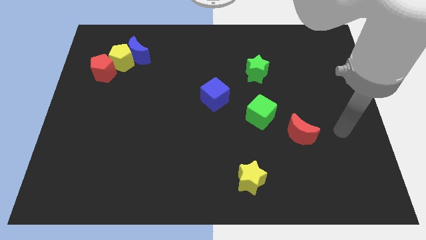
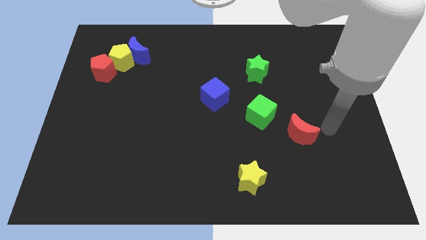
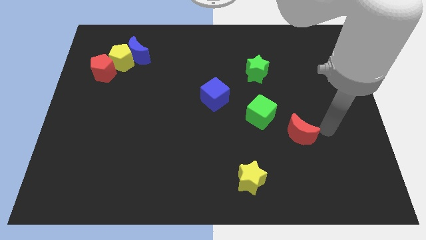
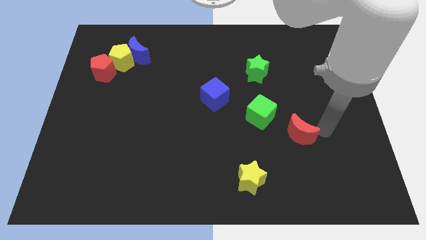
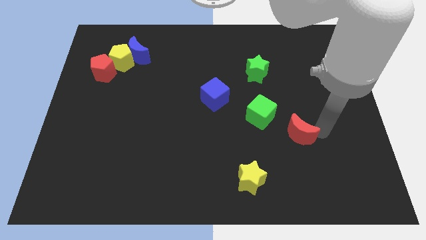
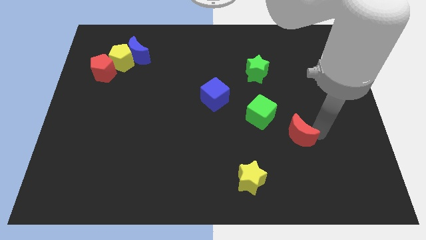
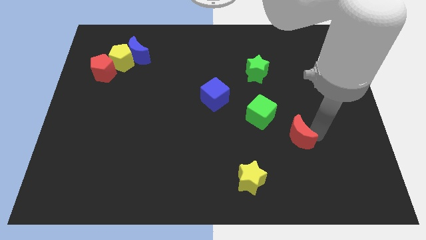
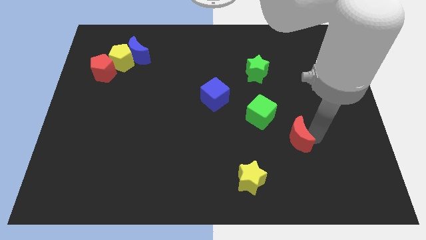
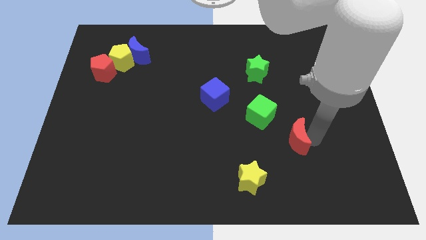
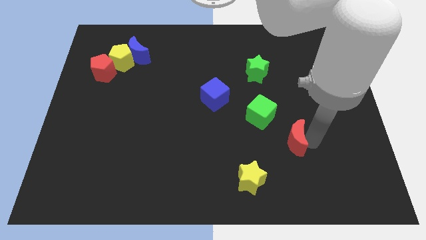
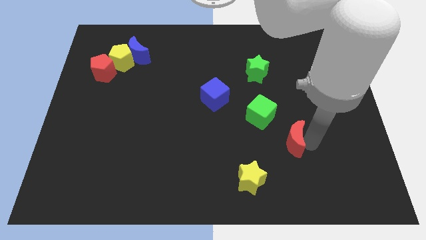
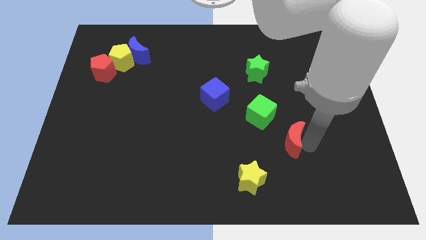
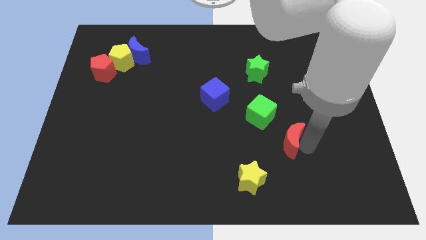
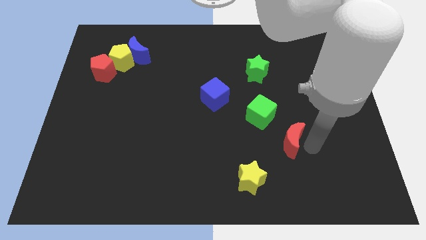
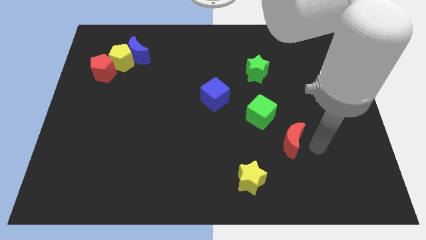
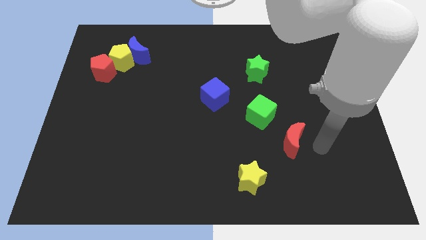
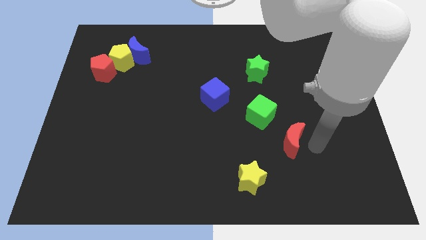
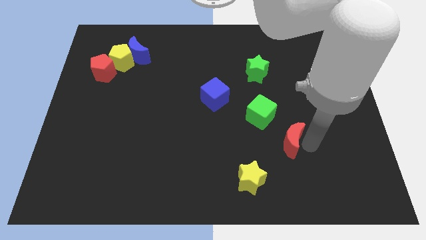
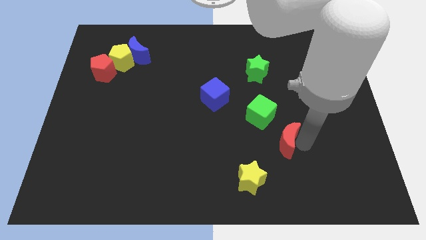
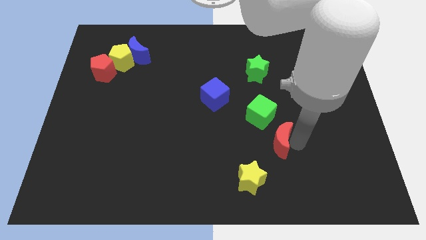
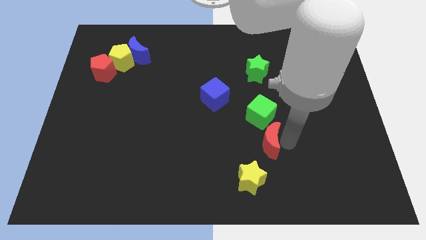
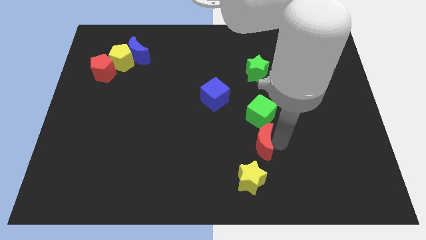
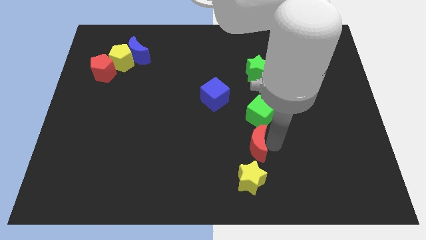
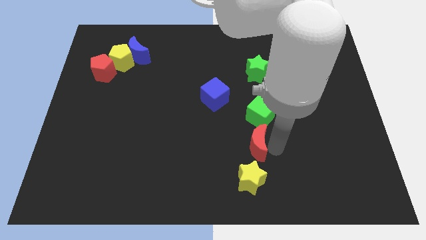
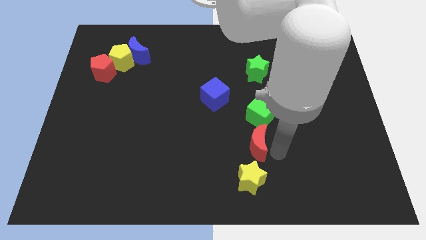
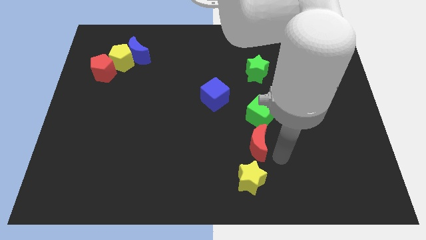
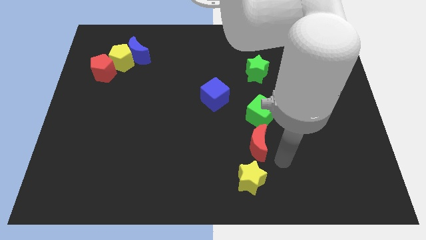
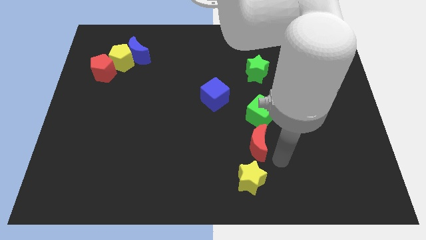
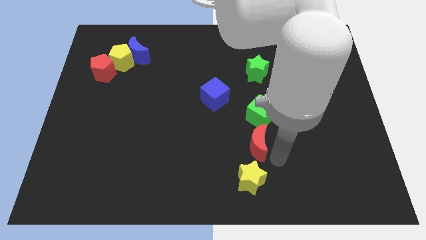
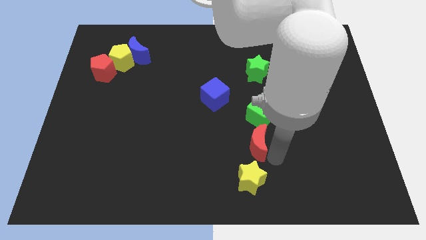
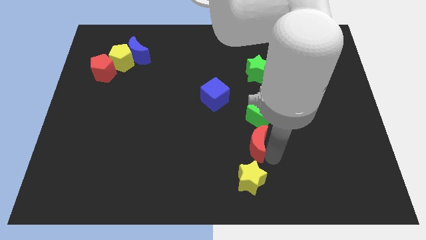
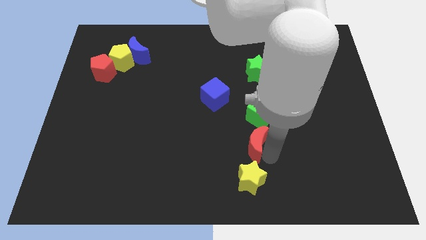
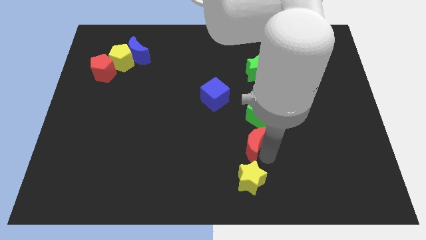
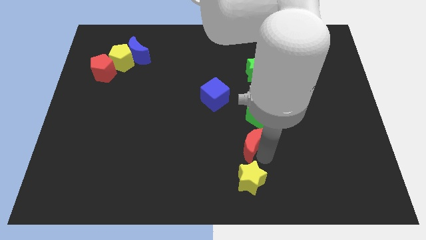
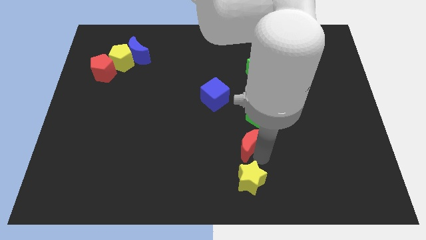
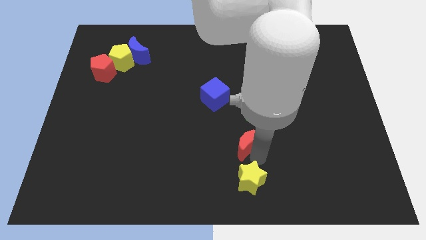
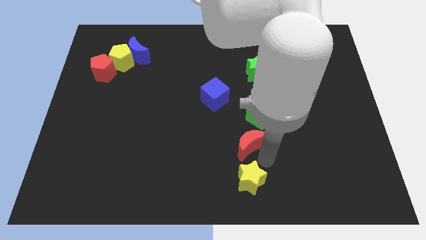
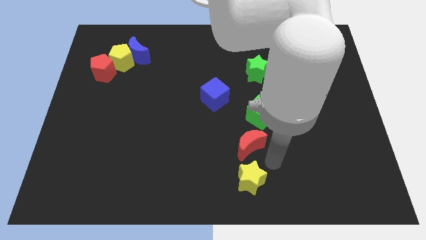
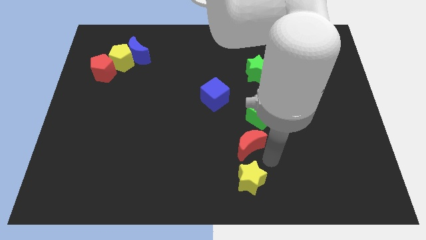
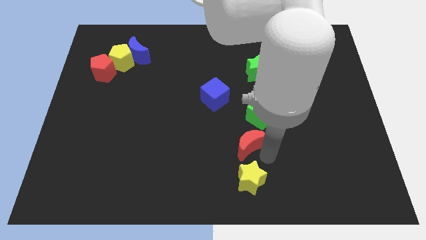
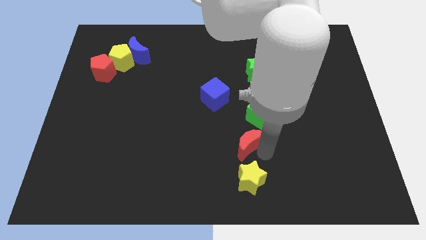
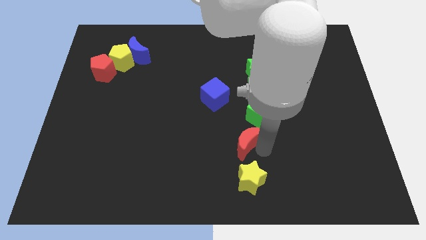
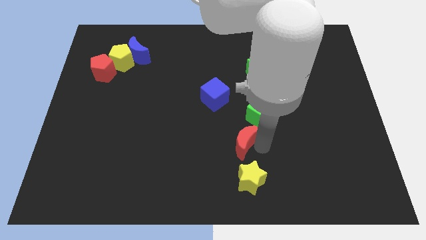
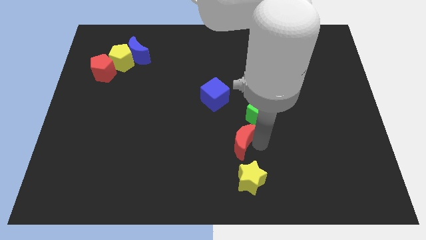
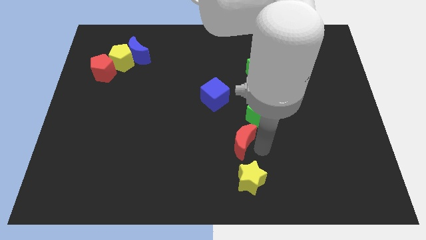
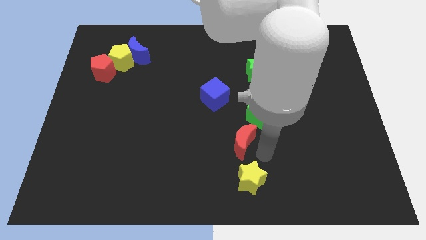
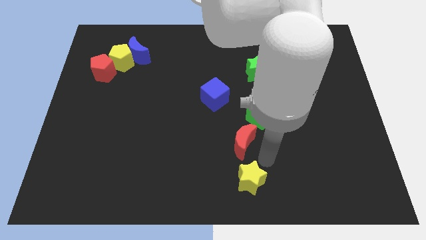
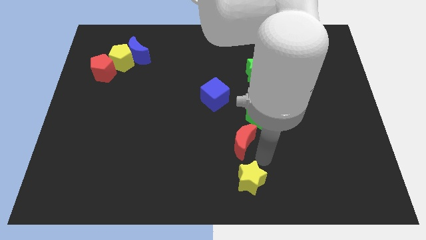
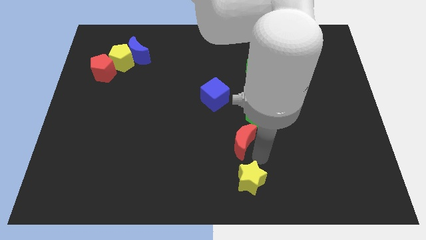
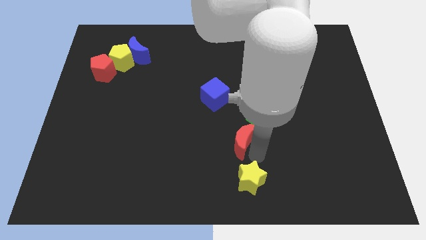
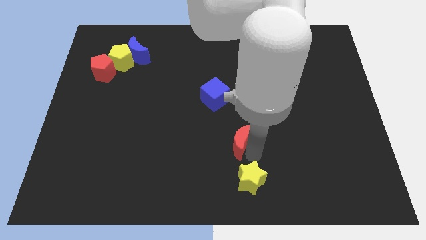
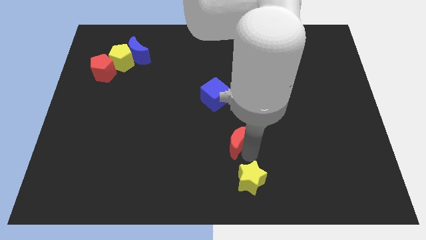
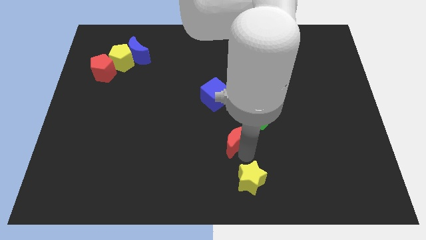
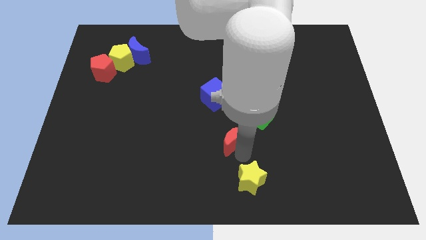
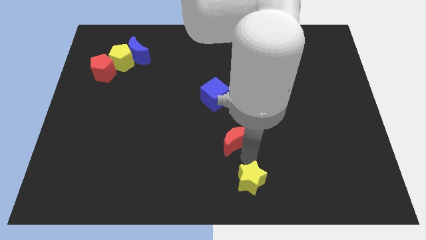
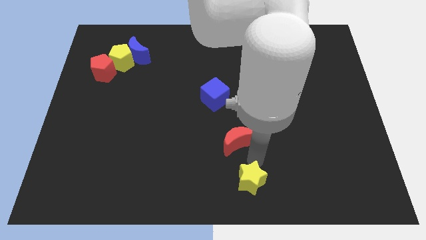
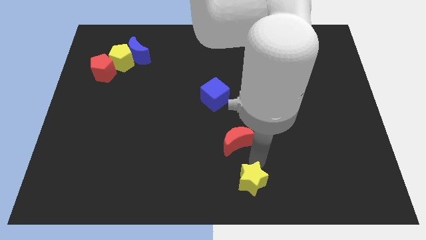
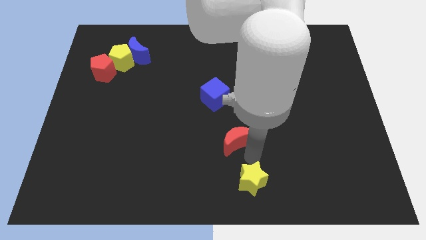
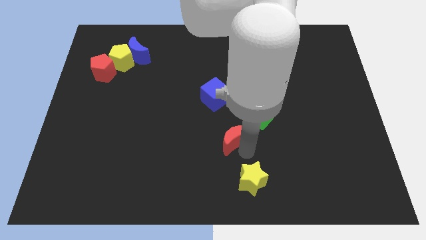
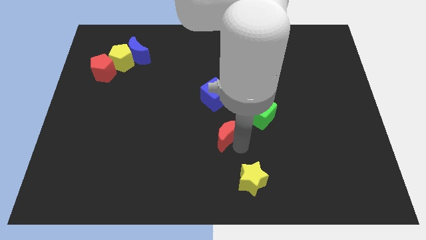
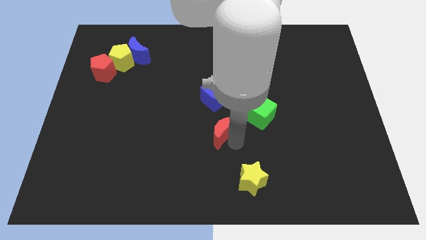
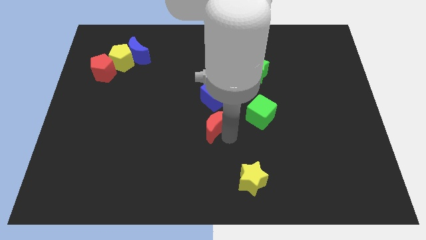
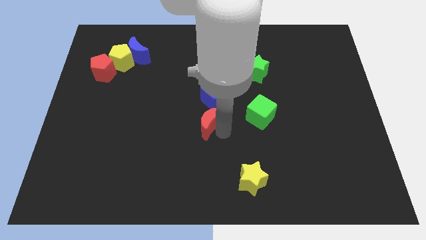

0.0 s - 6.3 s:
push the red moon to the bottom left of the blue cube
